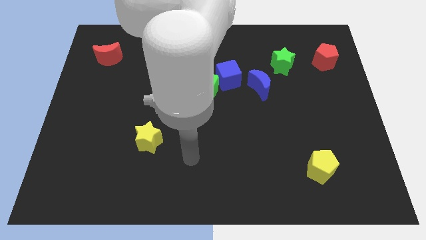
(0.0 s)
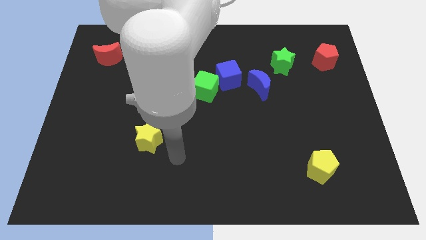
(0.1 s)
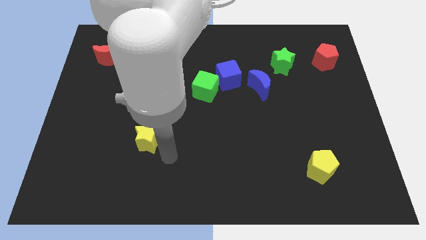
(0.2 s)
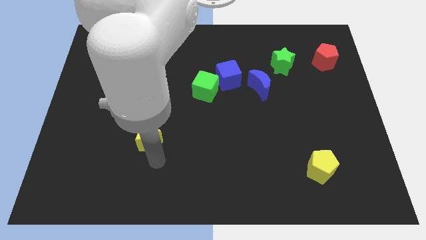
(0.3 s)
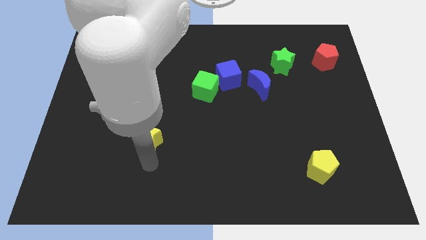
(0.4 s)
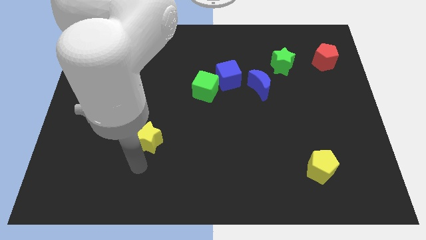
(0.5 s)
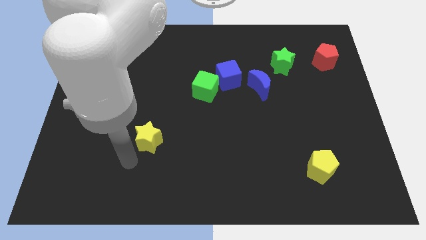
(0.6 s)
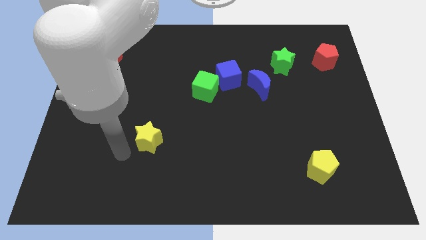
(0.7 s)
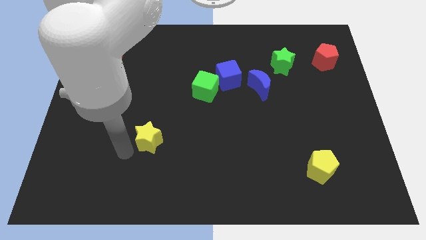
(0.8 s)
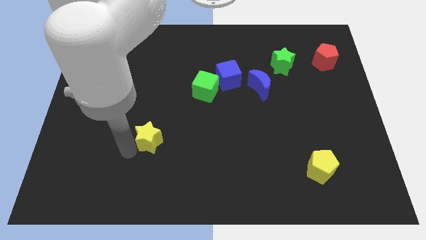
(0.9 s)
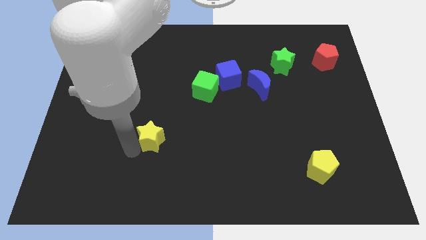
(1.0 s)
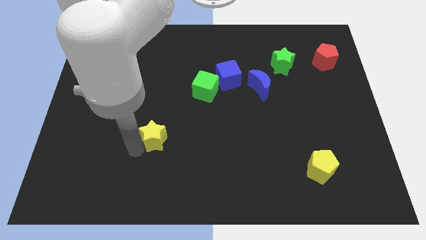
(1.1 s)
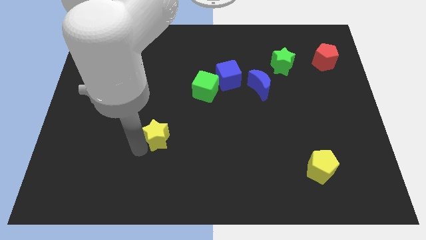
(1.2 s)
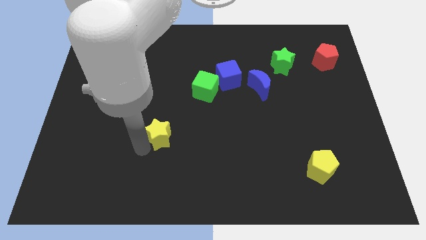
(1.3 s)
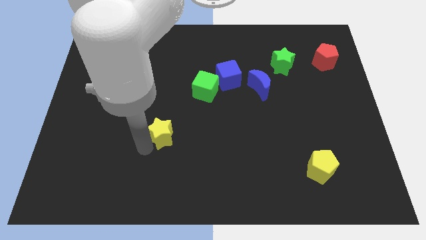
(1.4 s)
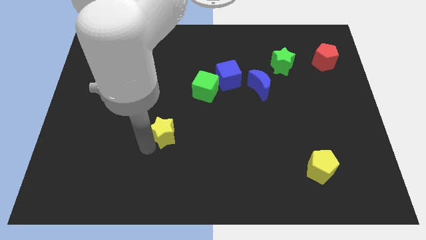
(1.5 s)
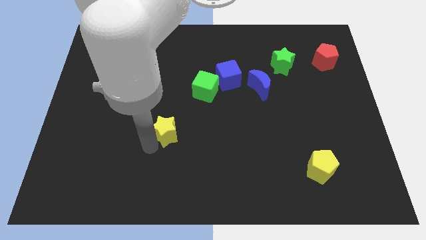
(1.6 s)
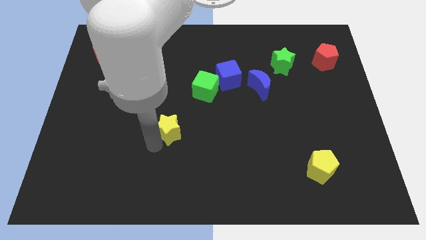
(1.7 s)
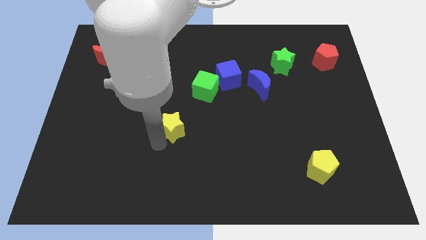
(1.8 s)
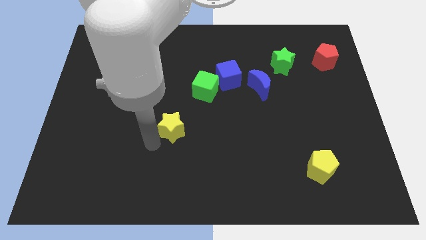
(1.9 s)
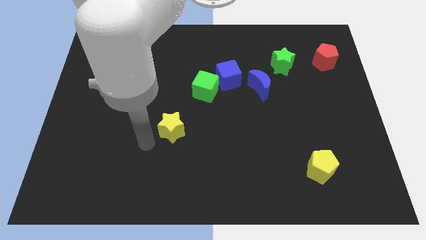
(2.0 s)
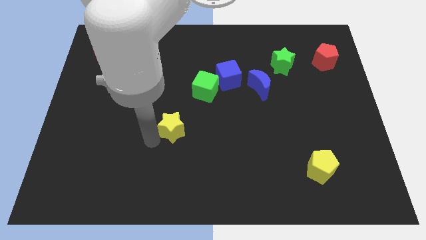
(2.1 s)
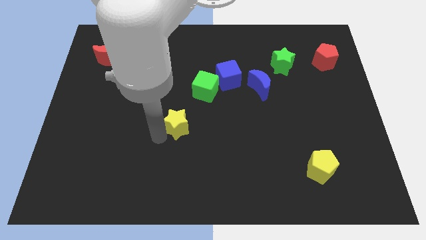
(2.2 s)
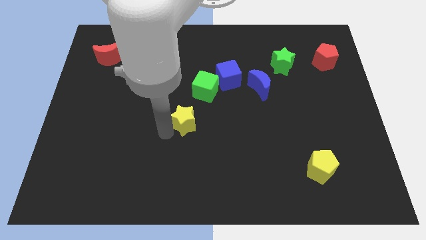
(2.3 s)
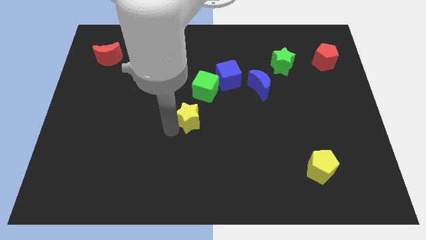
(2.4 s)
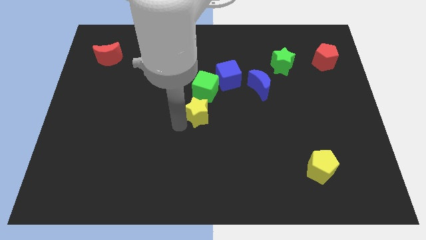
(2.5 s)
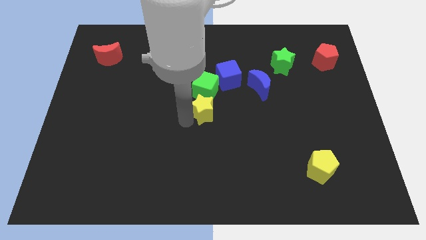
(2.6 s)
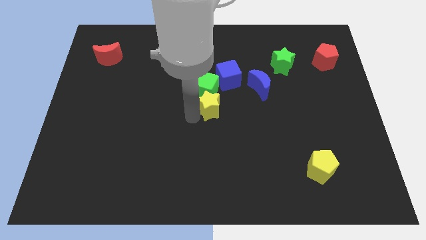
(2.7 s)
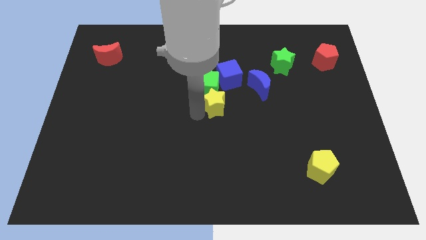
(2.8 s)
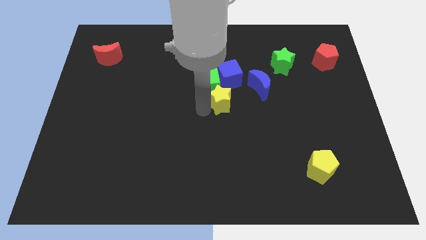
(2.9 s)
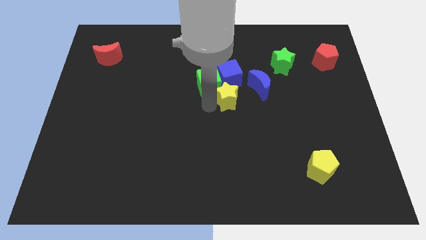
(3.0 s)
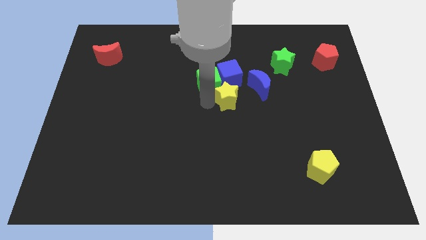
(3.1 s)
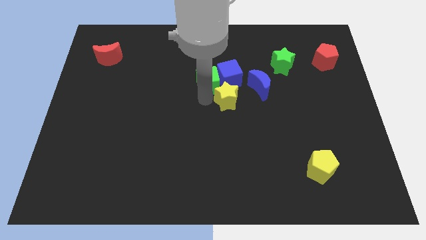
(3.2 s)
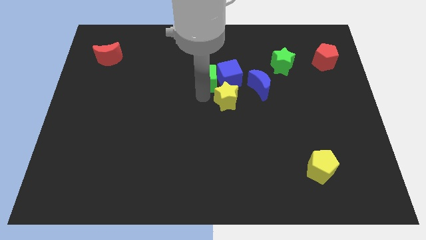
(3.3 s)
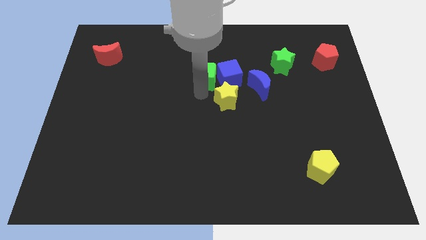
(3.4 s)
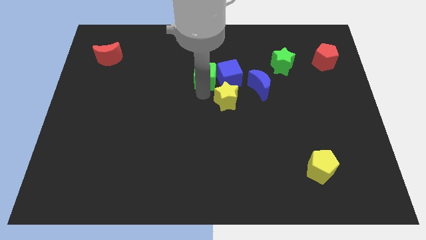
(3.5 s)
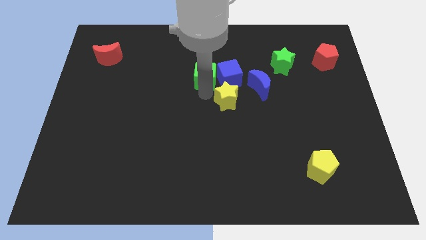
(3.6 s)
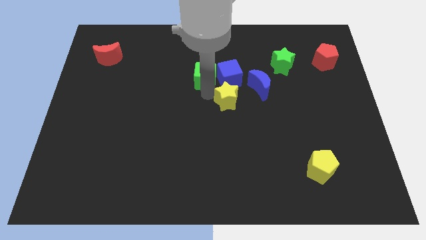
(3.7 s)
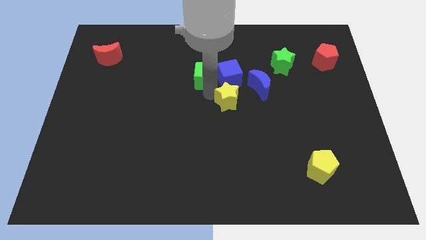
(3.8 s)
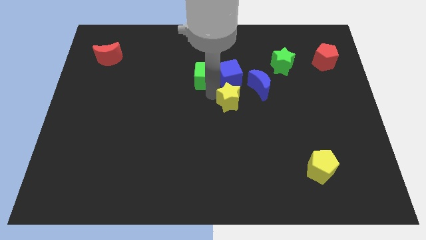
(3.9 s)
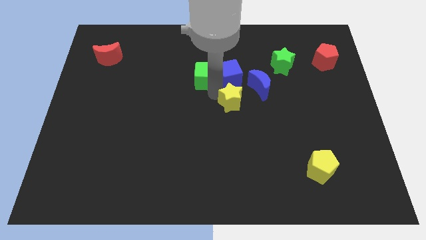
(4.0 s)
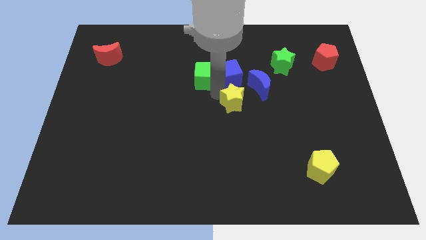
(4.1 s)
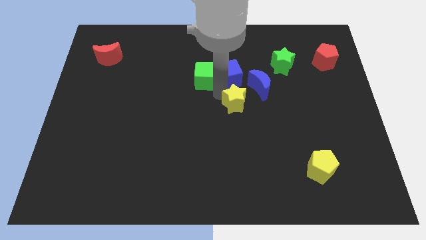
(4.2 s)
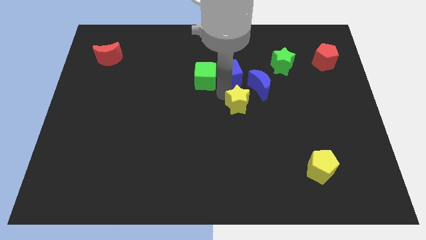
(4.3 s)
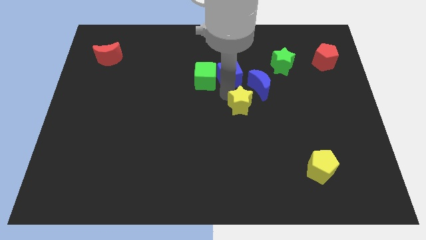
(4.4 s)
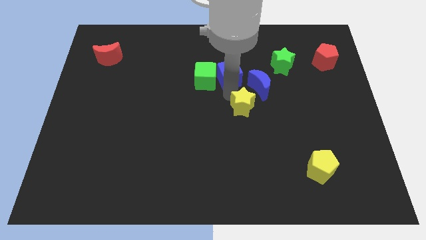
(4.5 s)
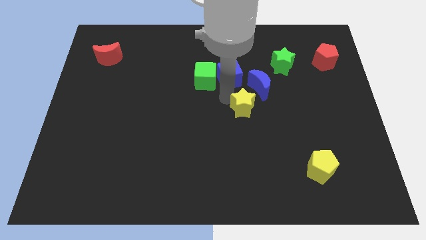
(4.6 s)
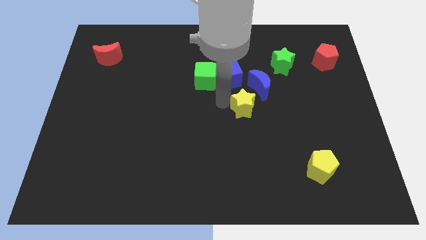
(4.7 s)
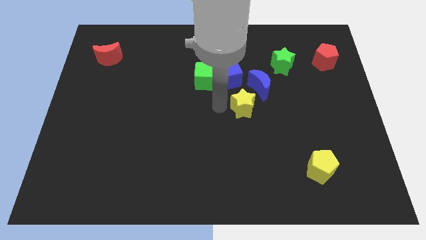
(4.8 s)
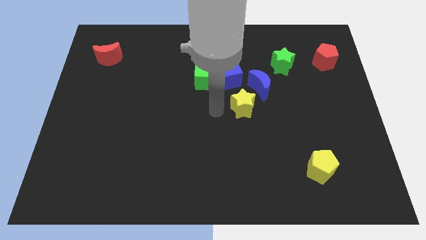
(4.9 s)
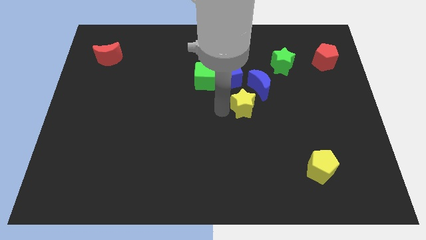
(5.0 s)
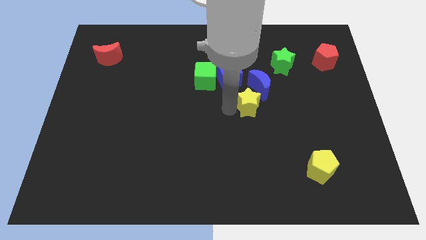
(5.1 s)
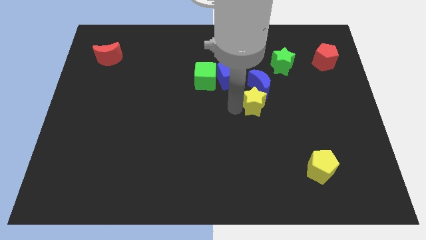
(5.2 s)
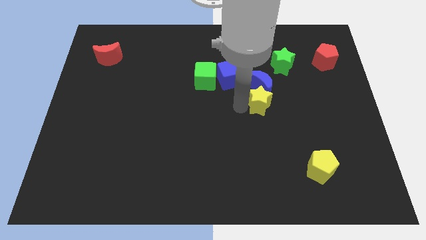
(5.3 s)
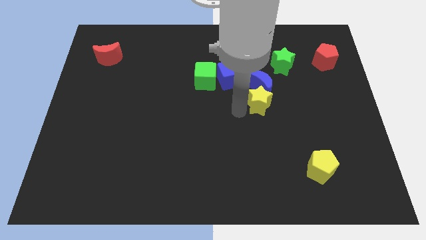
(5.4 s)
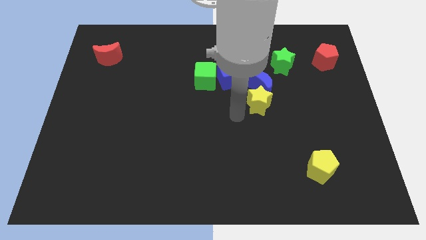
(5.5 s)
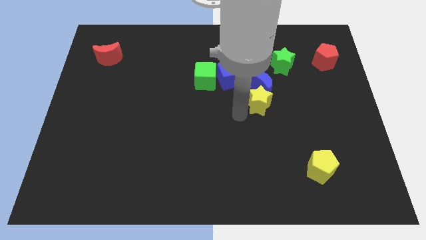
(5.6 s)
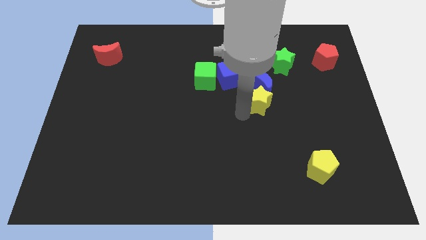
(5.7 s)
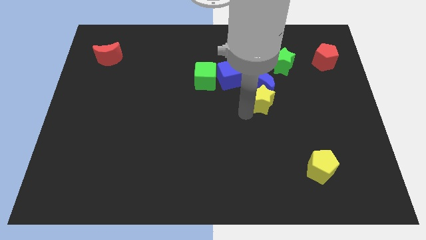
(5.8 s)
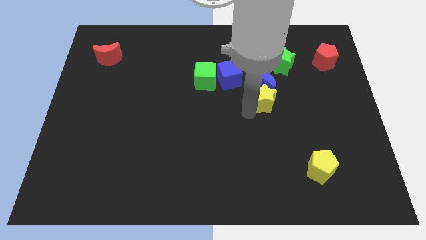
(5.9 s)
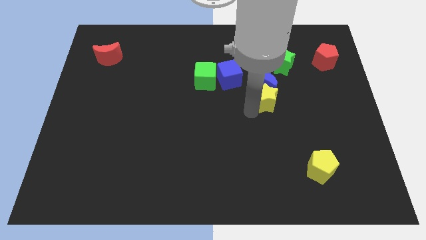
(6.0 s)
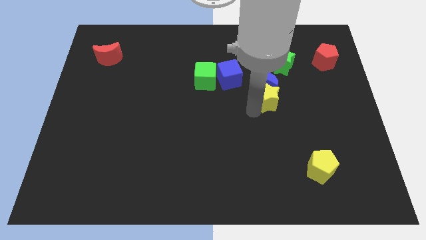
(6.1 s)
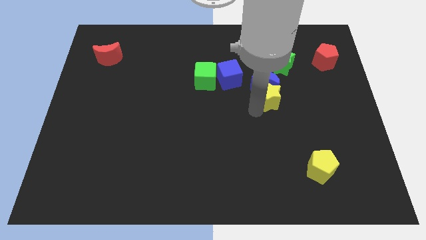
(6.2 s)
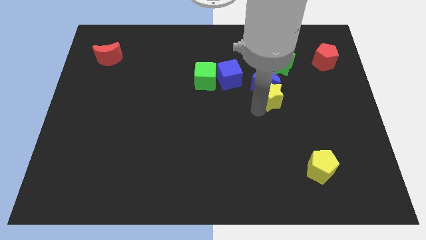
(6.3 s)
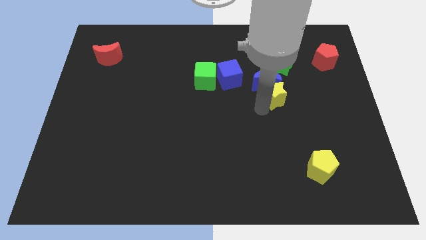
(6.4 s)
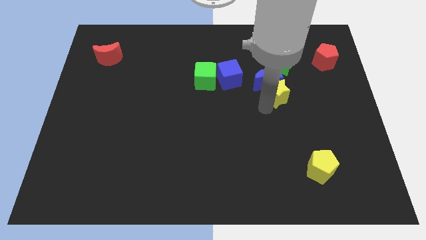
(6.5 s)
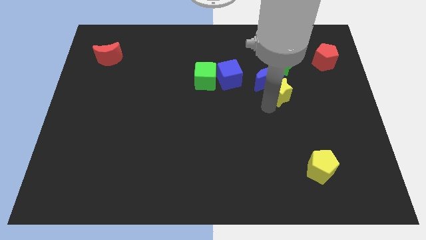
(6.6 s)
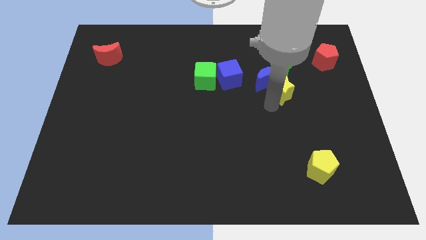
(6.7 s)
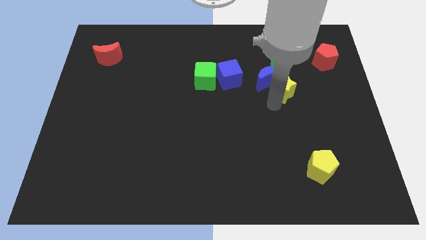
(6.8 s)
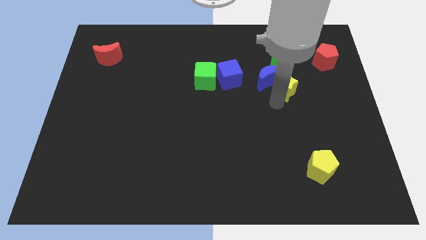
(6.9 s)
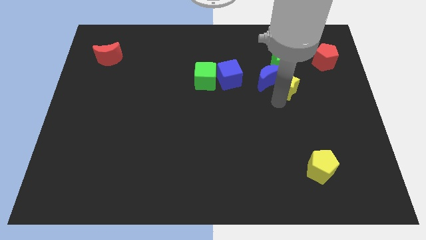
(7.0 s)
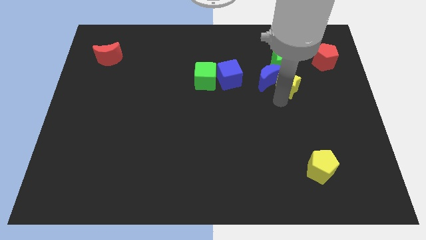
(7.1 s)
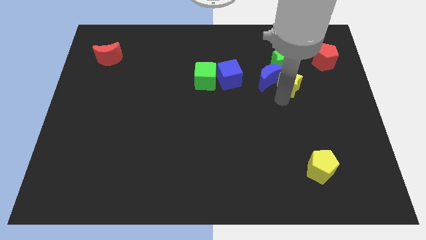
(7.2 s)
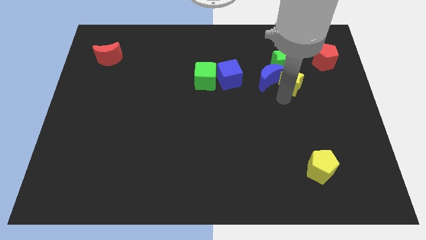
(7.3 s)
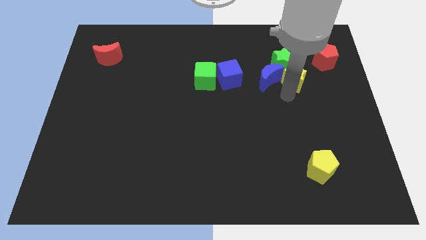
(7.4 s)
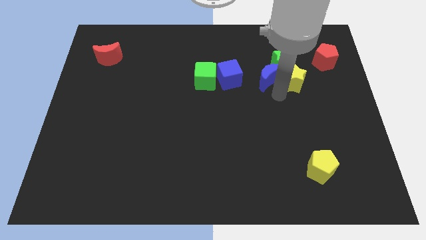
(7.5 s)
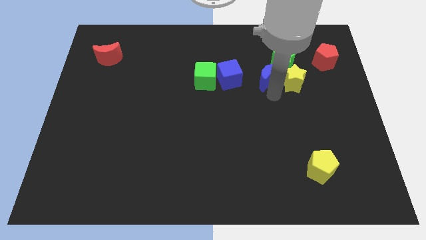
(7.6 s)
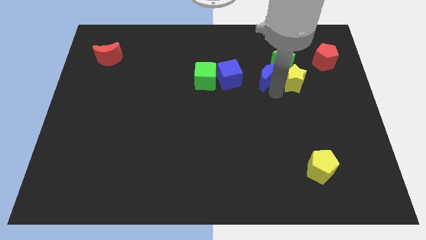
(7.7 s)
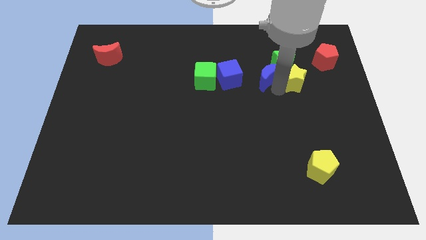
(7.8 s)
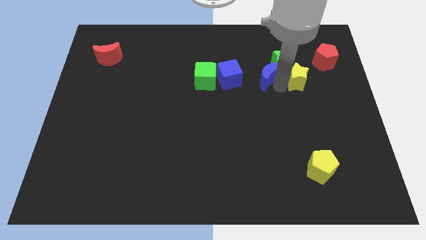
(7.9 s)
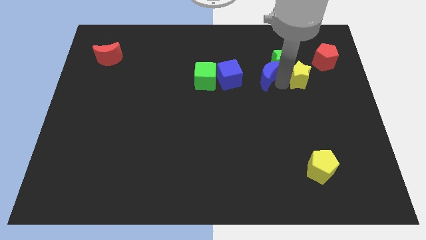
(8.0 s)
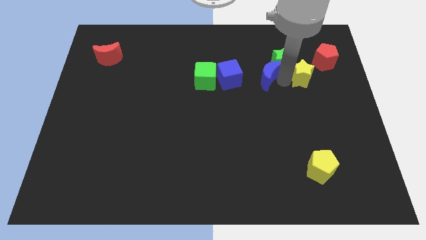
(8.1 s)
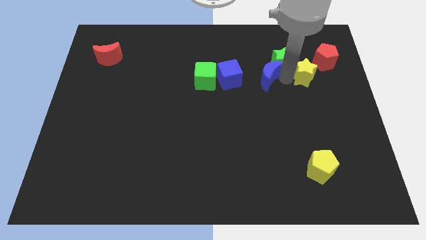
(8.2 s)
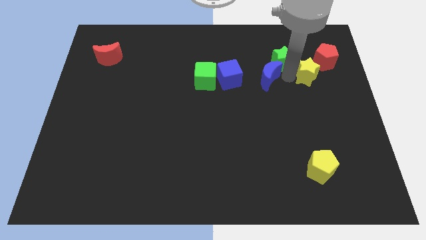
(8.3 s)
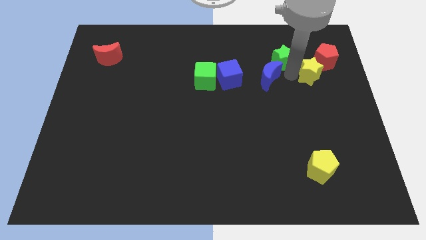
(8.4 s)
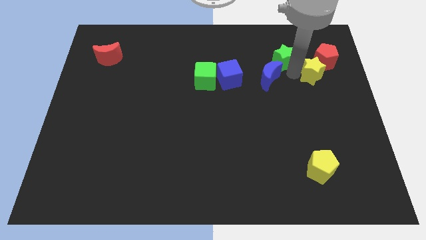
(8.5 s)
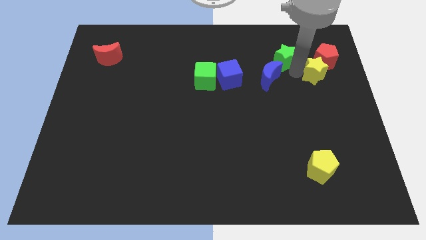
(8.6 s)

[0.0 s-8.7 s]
put the yellow star close to the red pentagon
